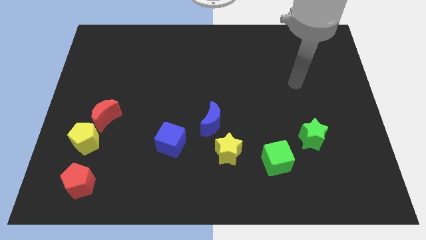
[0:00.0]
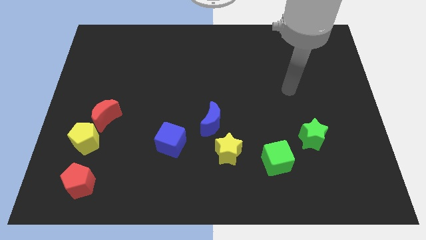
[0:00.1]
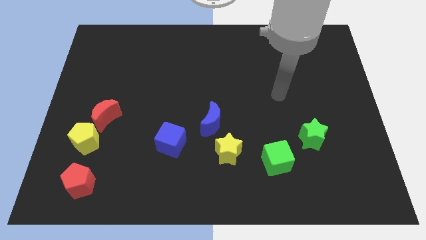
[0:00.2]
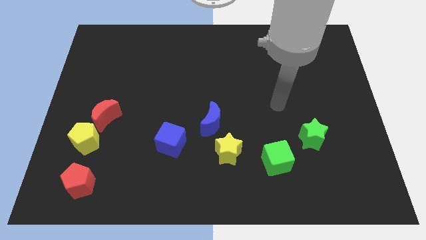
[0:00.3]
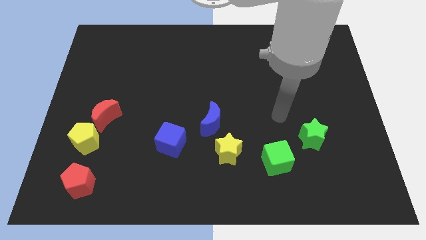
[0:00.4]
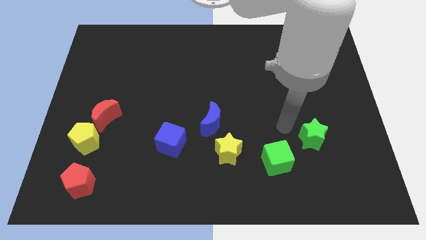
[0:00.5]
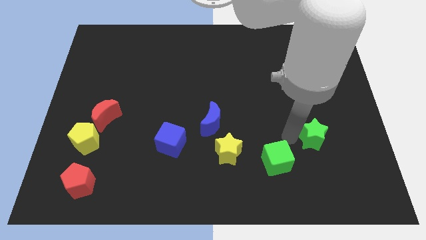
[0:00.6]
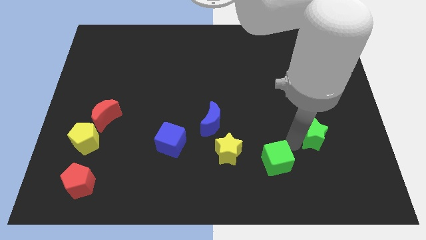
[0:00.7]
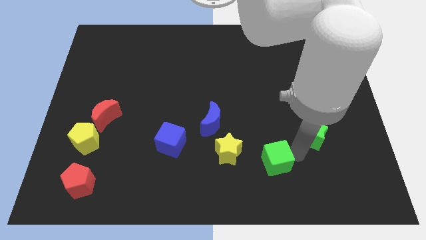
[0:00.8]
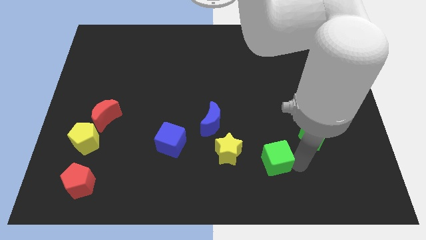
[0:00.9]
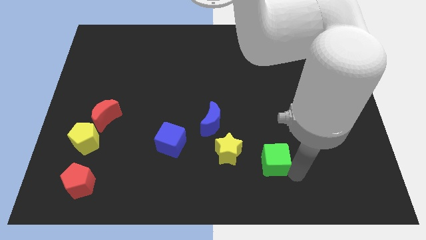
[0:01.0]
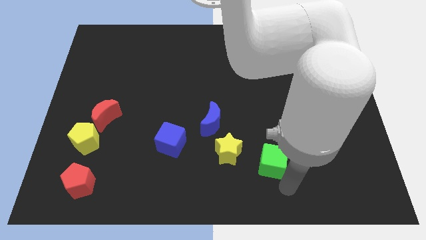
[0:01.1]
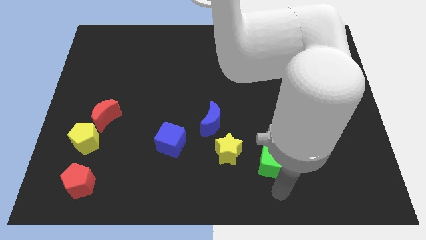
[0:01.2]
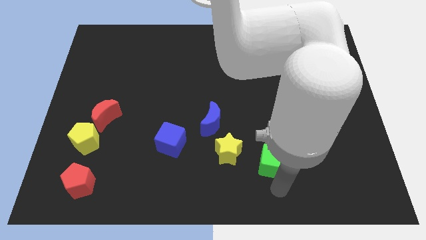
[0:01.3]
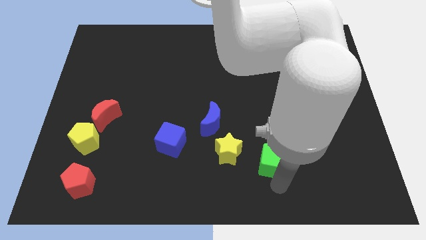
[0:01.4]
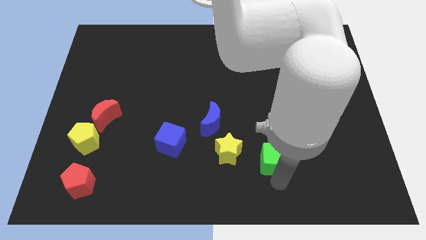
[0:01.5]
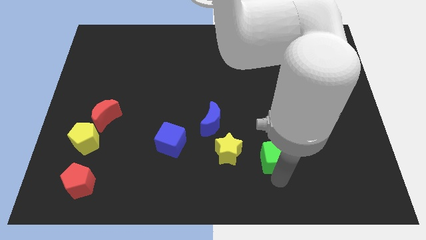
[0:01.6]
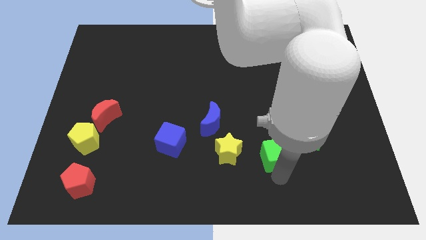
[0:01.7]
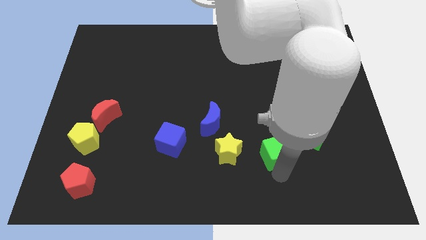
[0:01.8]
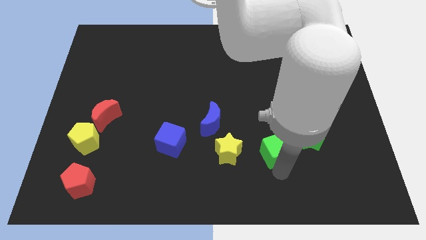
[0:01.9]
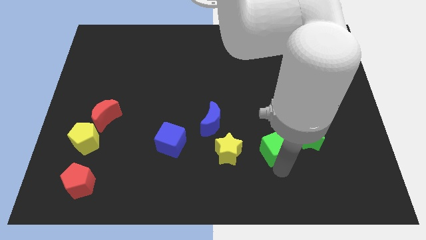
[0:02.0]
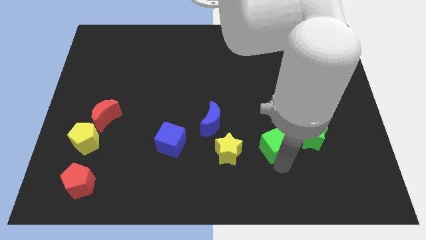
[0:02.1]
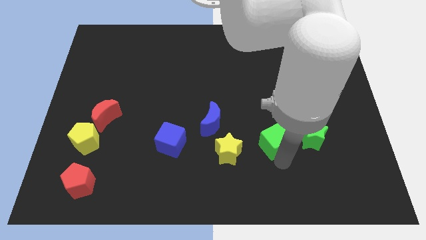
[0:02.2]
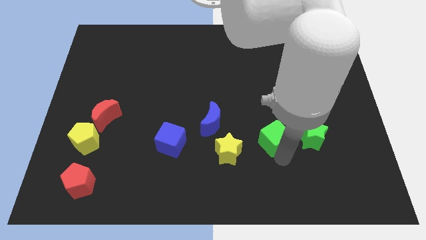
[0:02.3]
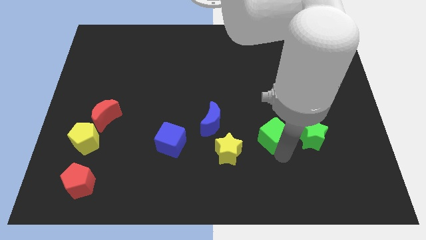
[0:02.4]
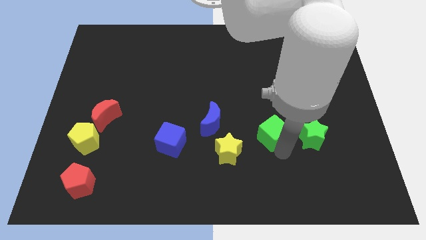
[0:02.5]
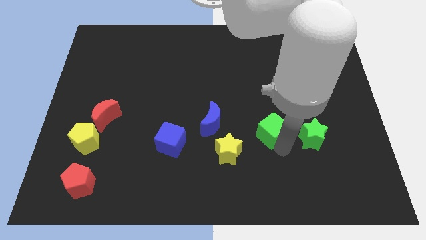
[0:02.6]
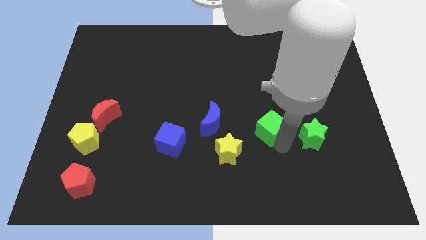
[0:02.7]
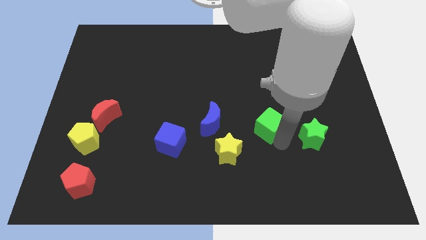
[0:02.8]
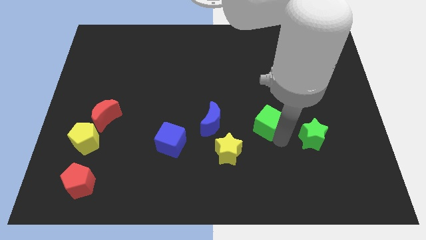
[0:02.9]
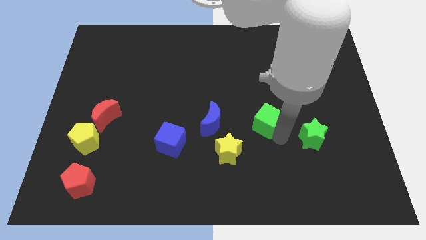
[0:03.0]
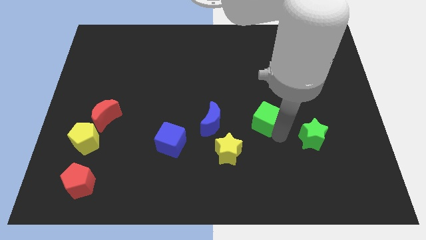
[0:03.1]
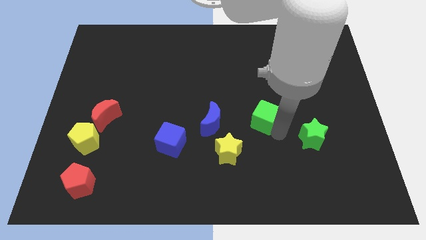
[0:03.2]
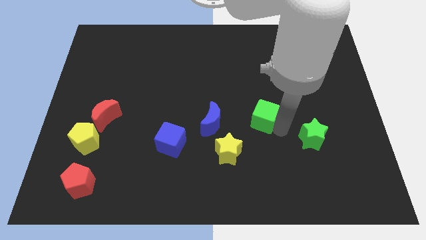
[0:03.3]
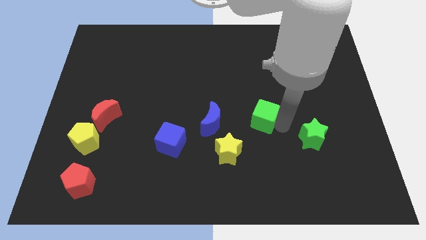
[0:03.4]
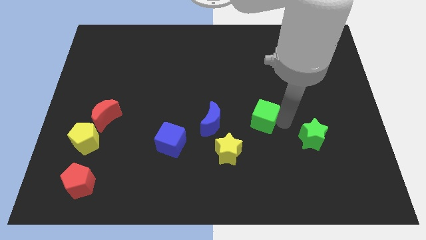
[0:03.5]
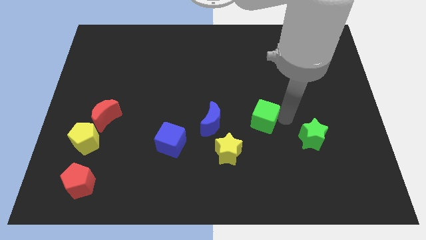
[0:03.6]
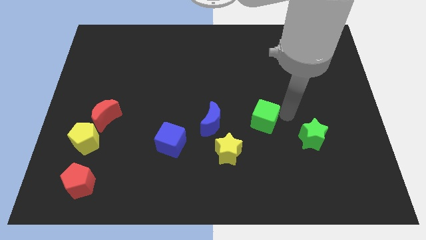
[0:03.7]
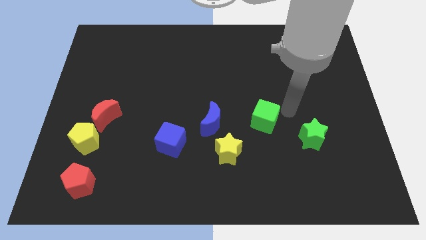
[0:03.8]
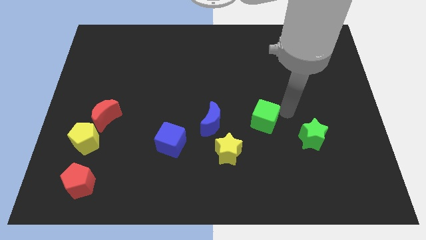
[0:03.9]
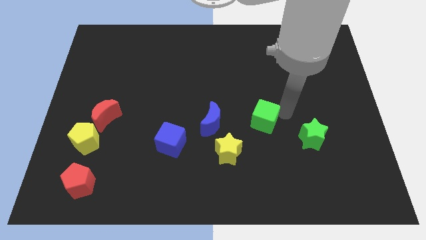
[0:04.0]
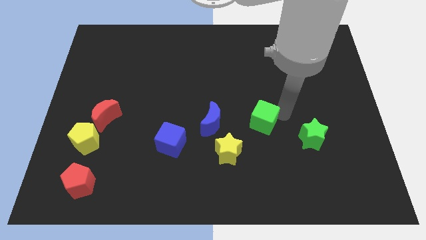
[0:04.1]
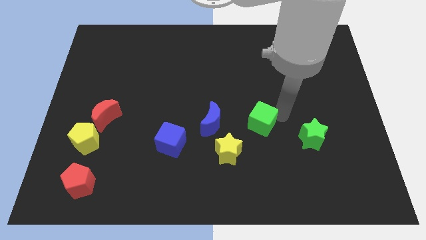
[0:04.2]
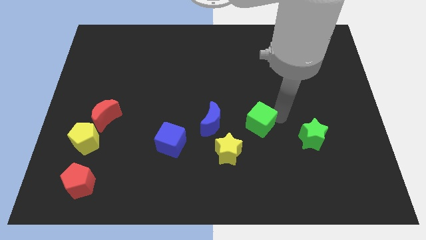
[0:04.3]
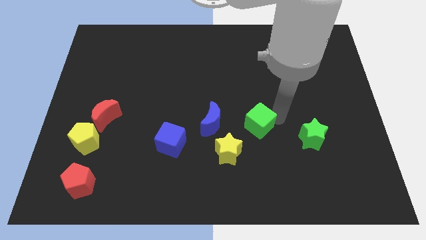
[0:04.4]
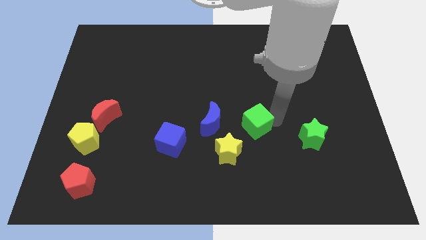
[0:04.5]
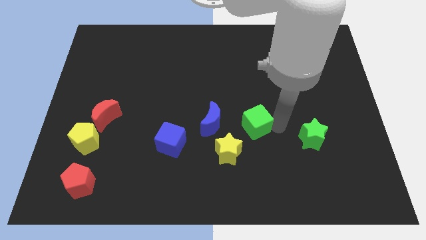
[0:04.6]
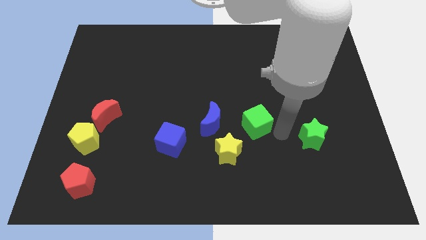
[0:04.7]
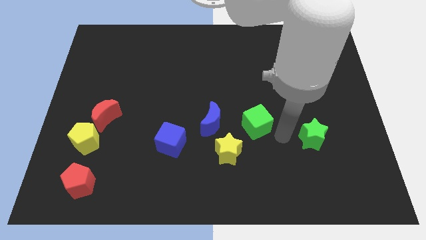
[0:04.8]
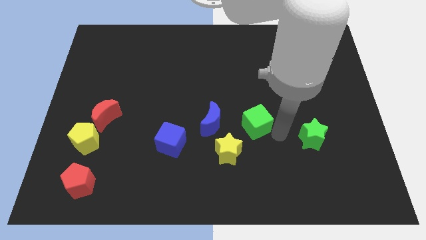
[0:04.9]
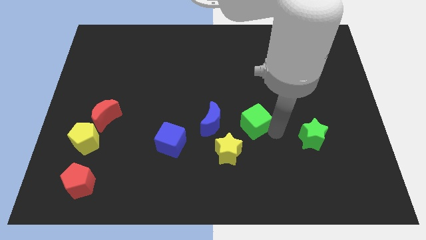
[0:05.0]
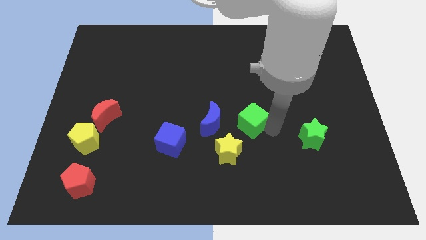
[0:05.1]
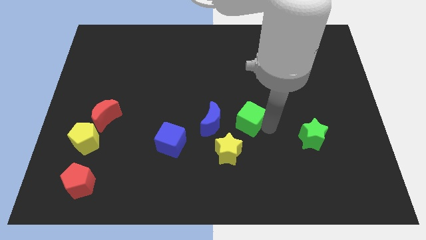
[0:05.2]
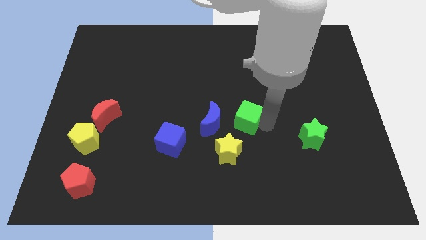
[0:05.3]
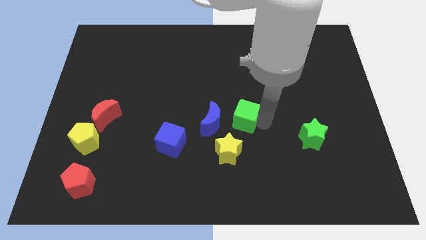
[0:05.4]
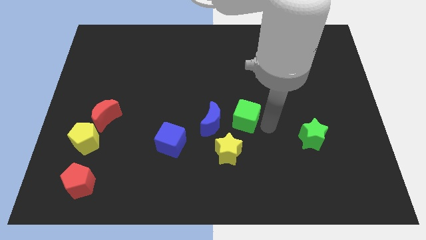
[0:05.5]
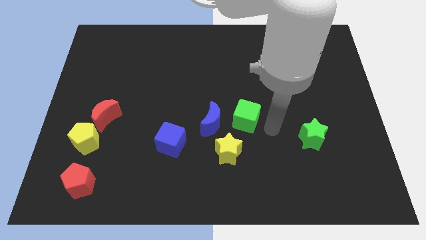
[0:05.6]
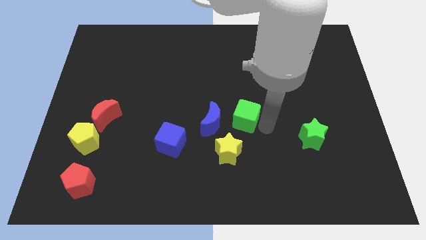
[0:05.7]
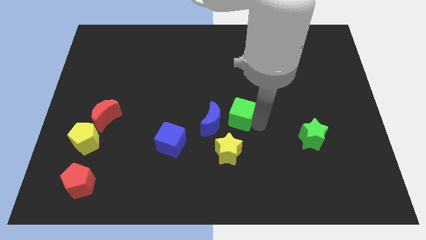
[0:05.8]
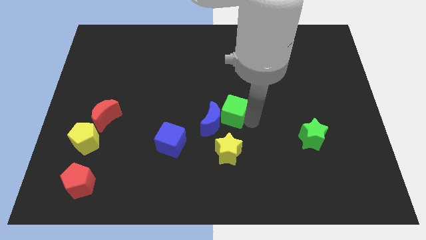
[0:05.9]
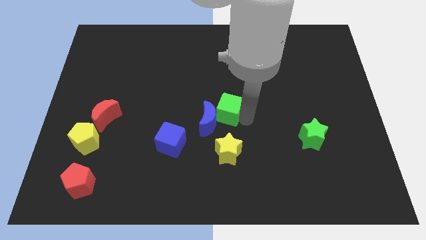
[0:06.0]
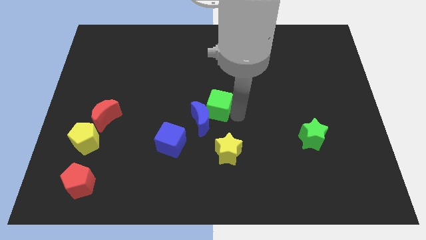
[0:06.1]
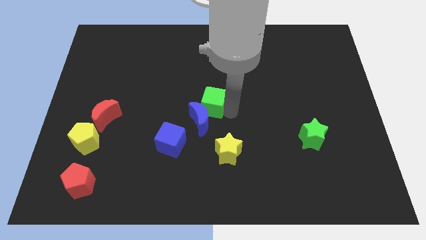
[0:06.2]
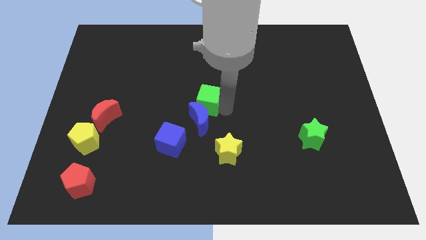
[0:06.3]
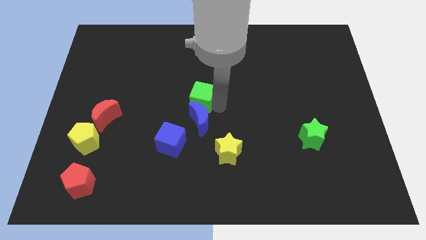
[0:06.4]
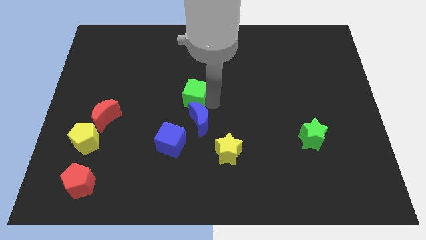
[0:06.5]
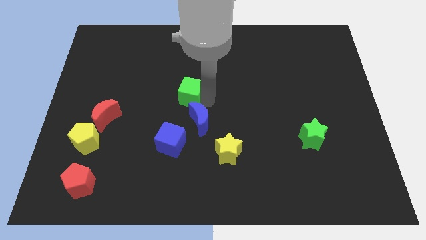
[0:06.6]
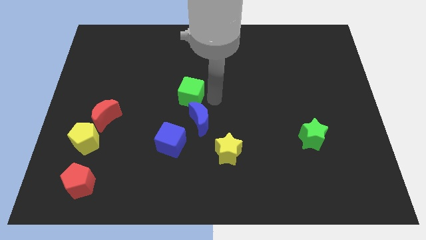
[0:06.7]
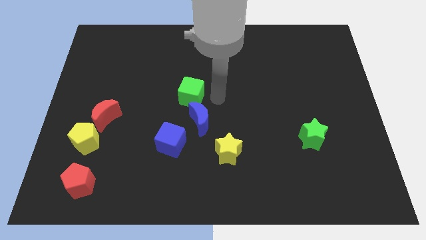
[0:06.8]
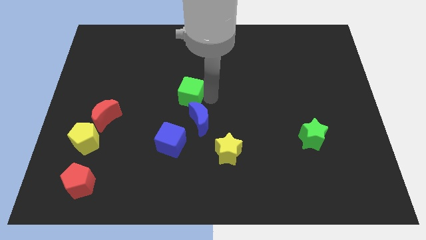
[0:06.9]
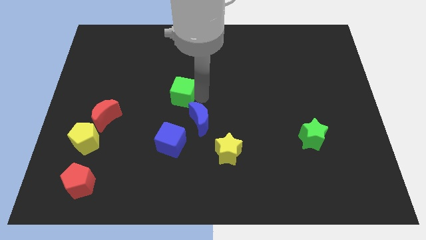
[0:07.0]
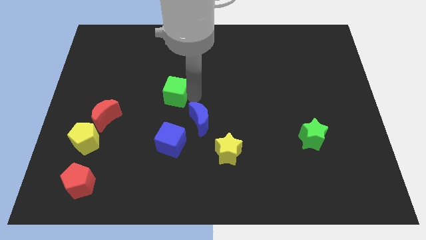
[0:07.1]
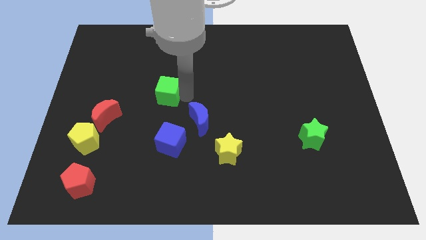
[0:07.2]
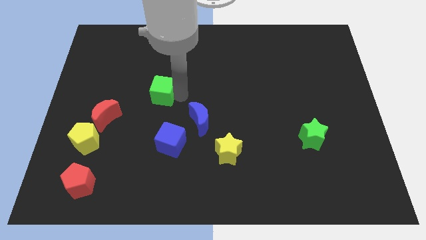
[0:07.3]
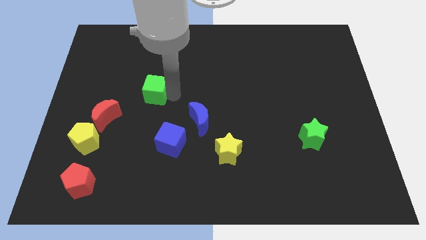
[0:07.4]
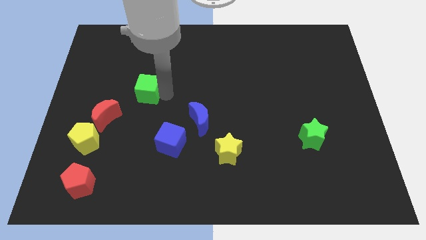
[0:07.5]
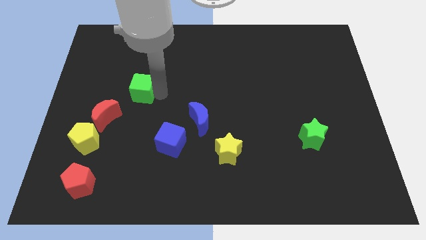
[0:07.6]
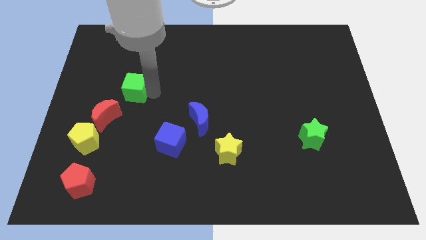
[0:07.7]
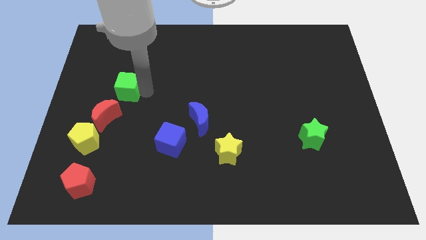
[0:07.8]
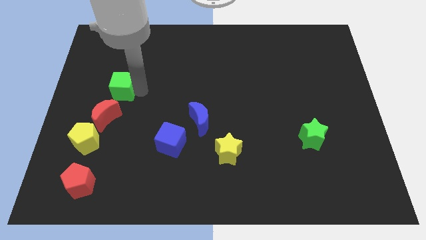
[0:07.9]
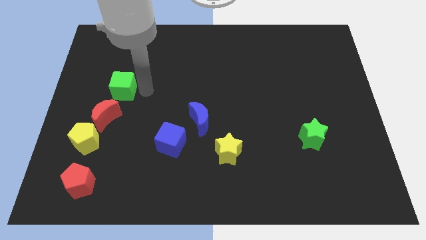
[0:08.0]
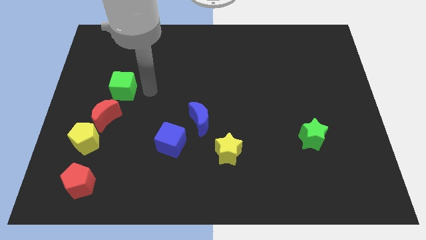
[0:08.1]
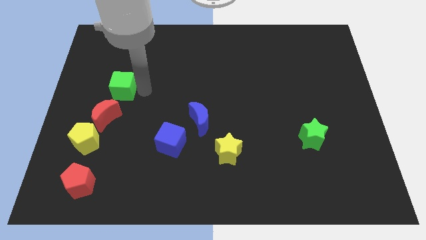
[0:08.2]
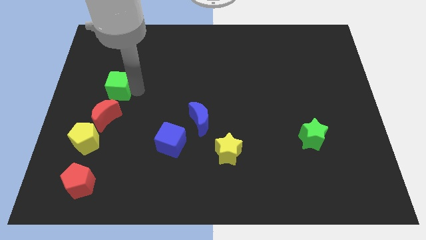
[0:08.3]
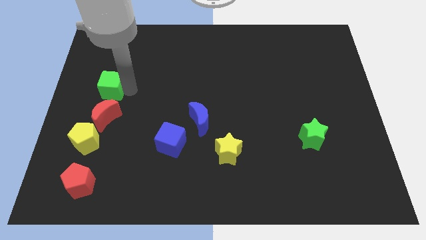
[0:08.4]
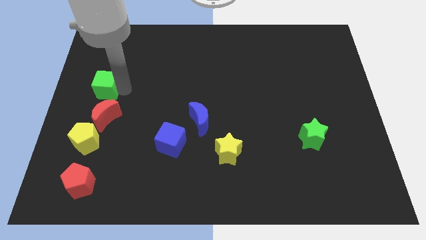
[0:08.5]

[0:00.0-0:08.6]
slide the green cube to the center left
